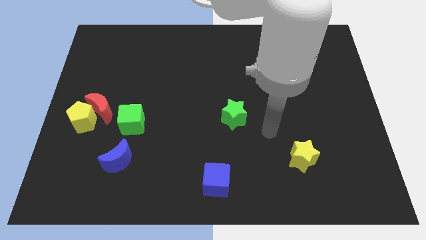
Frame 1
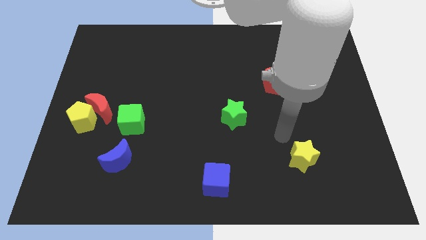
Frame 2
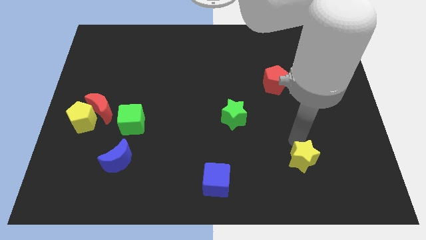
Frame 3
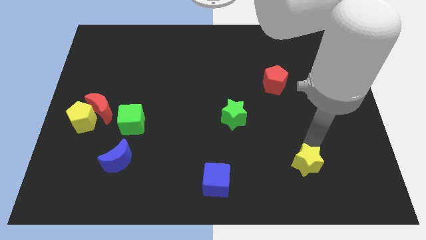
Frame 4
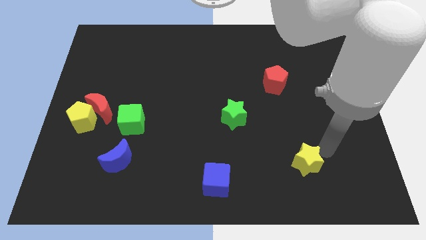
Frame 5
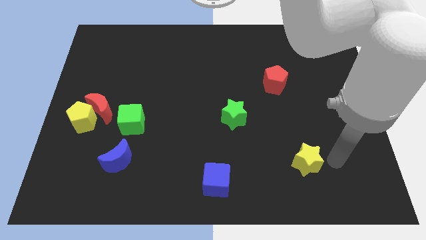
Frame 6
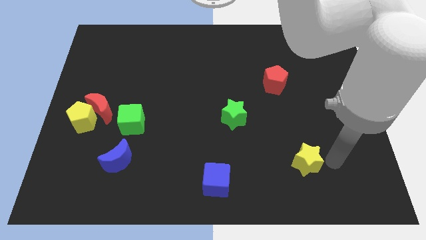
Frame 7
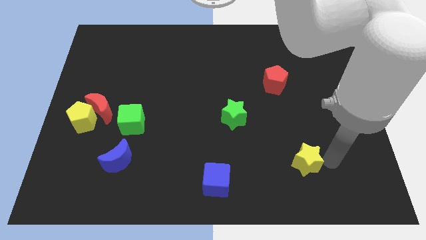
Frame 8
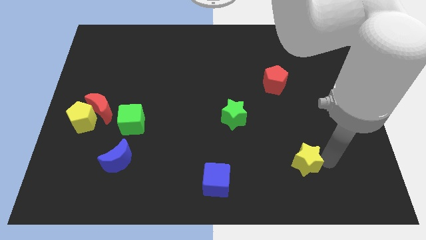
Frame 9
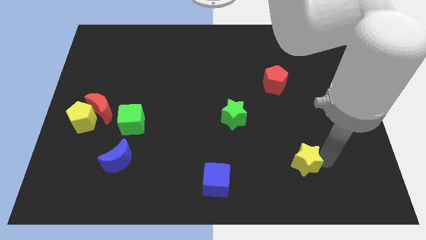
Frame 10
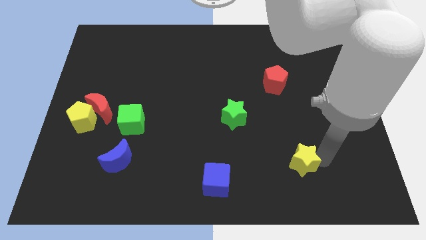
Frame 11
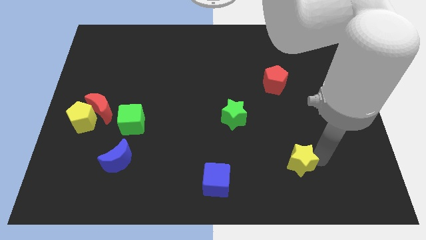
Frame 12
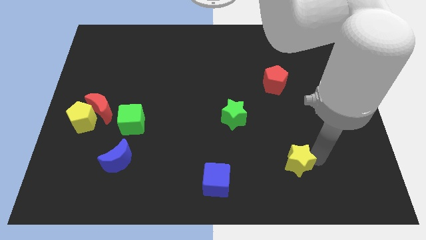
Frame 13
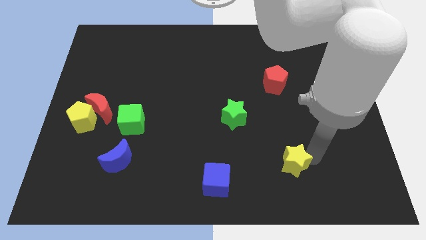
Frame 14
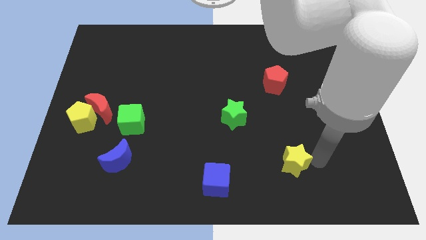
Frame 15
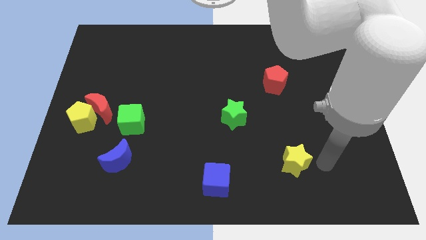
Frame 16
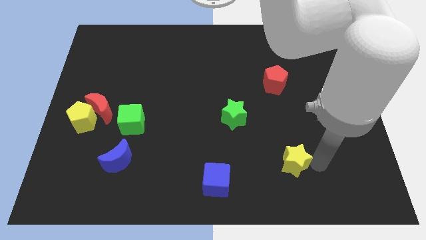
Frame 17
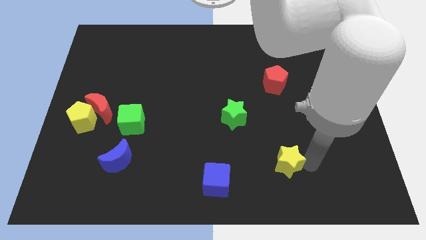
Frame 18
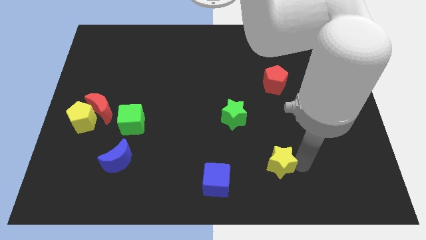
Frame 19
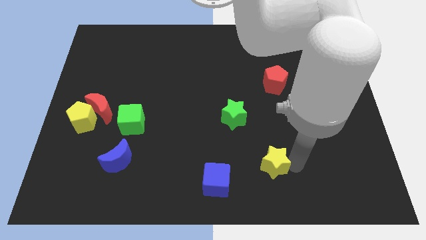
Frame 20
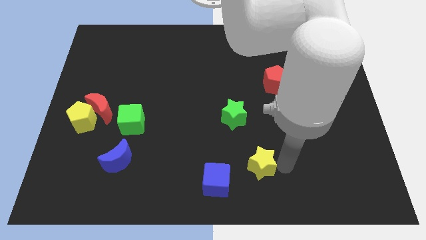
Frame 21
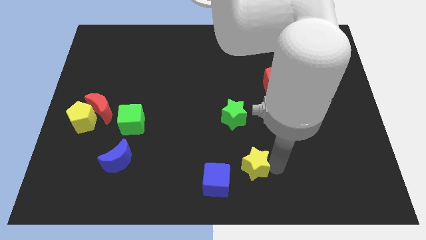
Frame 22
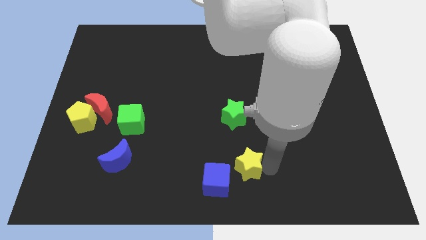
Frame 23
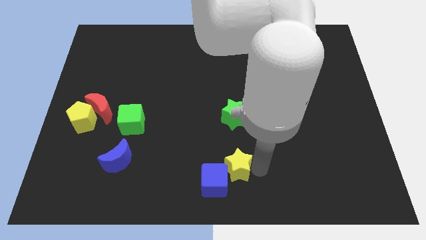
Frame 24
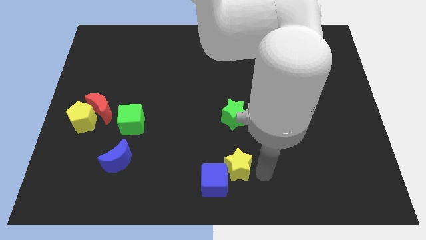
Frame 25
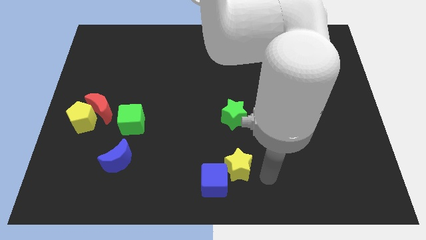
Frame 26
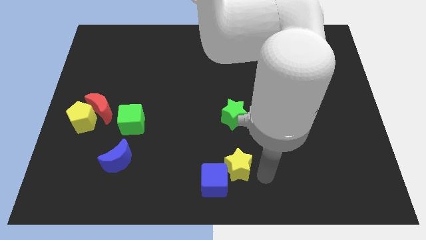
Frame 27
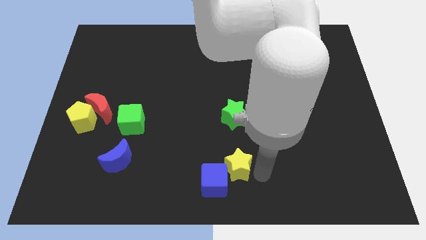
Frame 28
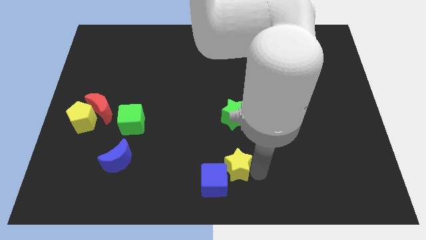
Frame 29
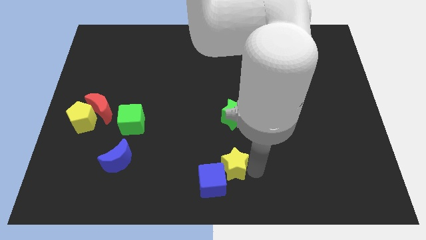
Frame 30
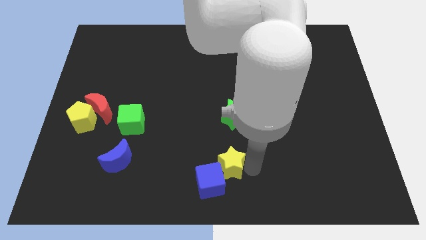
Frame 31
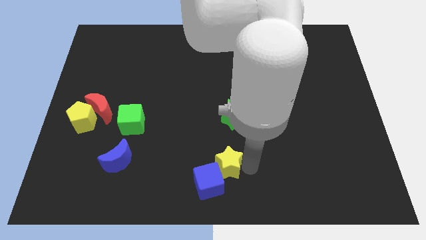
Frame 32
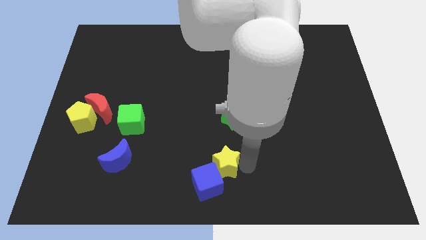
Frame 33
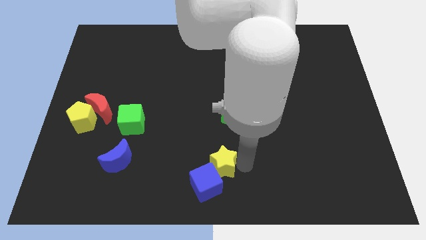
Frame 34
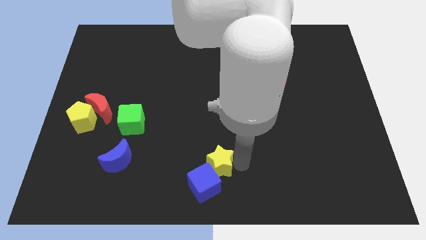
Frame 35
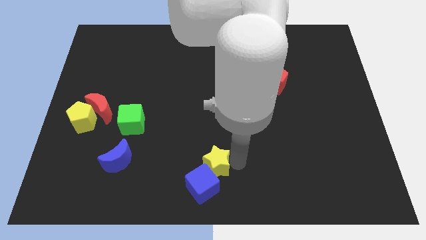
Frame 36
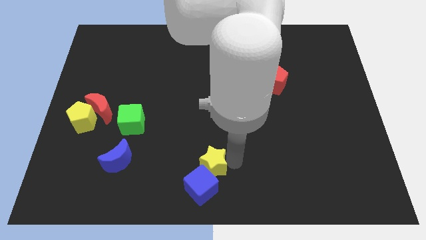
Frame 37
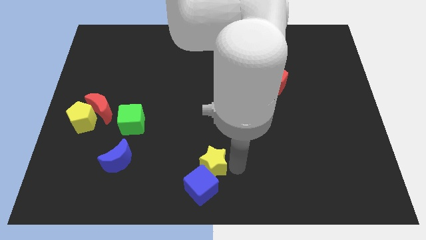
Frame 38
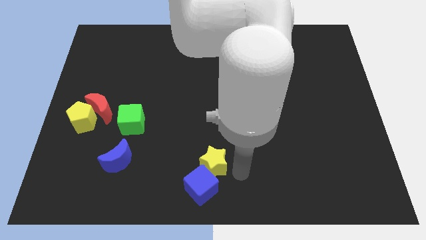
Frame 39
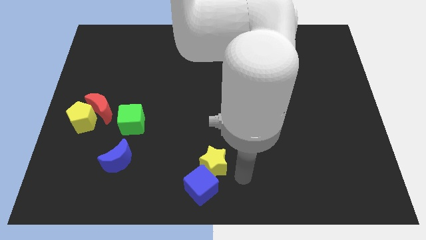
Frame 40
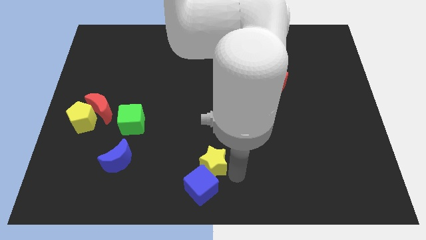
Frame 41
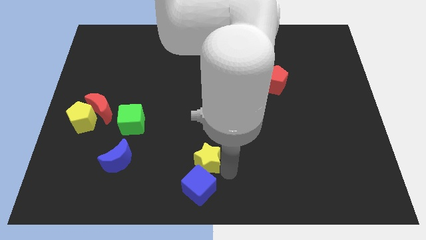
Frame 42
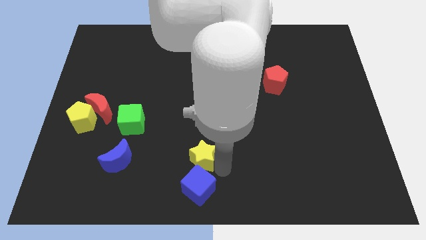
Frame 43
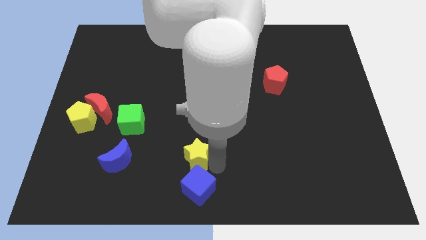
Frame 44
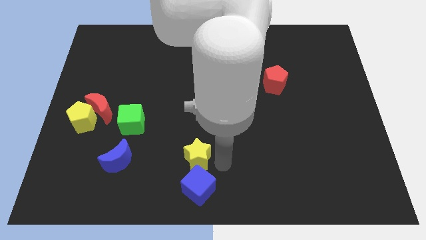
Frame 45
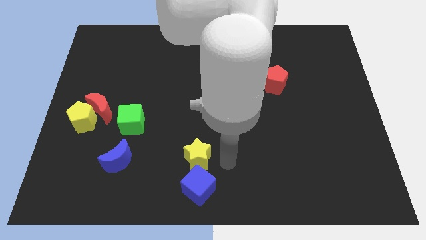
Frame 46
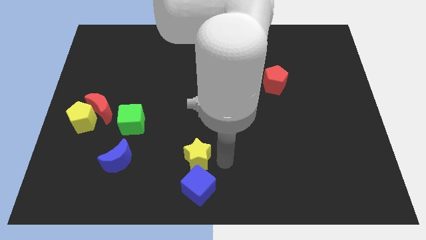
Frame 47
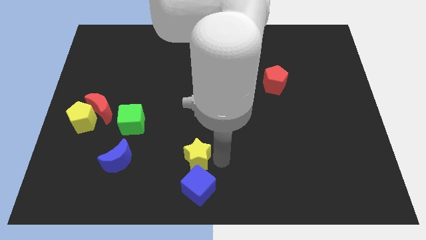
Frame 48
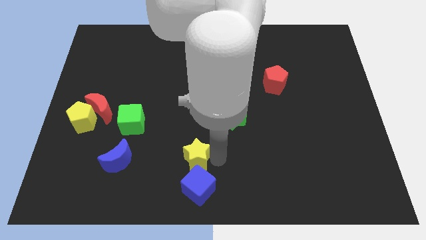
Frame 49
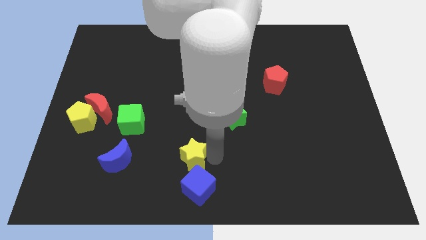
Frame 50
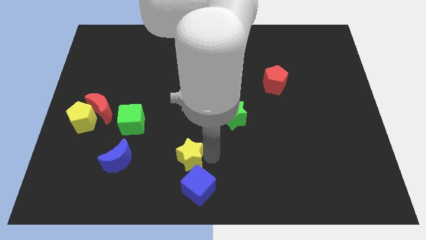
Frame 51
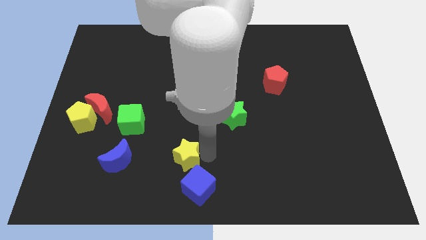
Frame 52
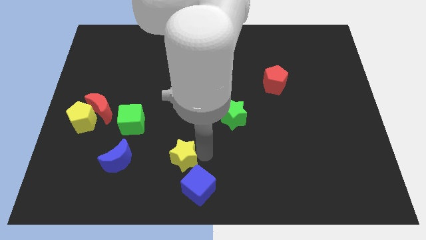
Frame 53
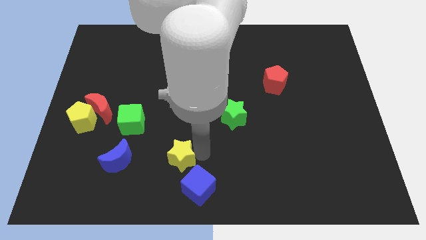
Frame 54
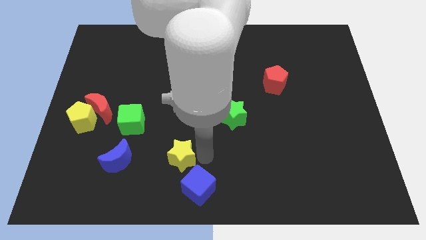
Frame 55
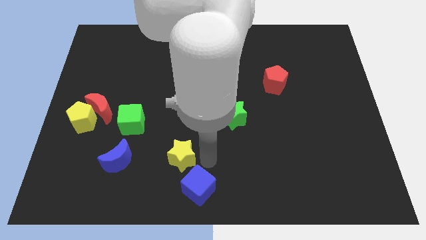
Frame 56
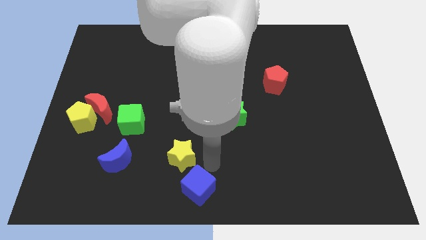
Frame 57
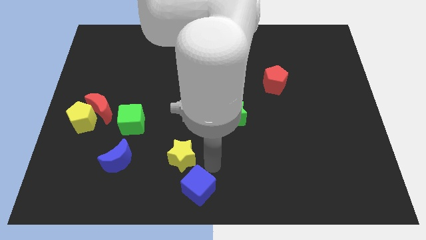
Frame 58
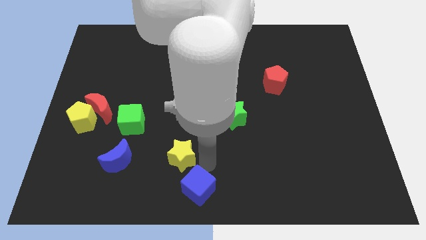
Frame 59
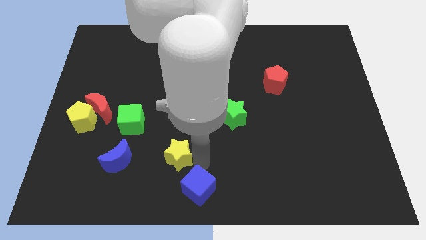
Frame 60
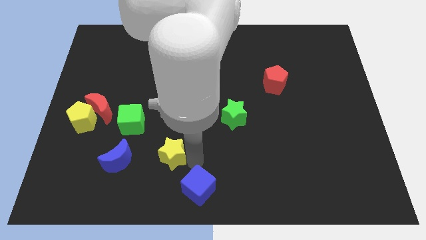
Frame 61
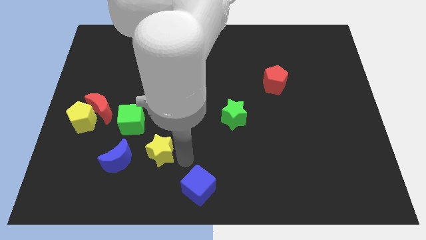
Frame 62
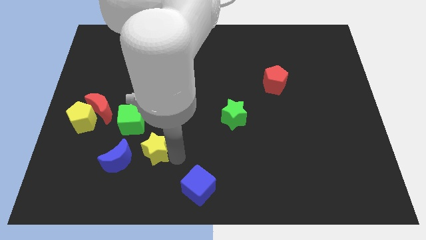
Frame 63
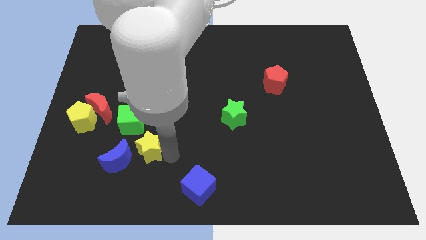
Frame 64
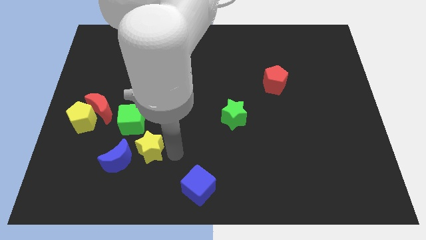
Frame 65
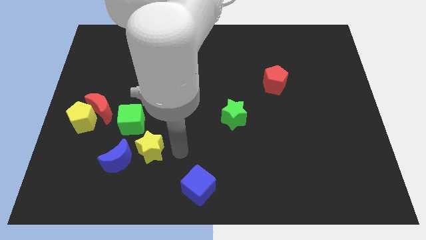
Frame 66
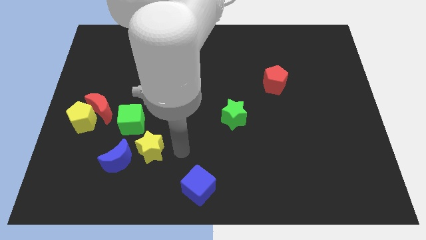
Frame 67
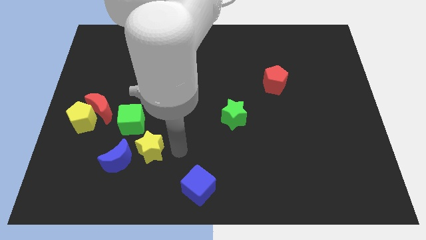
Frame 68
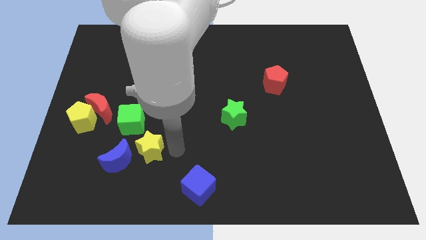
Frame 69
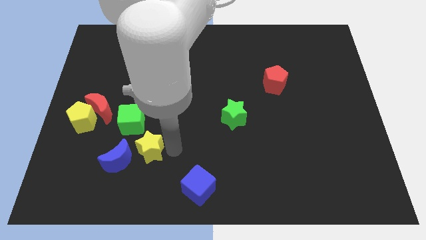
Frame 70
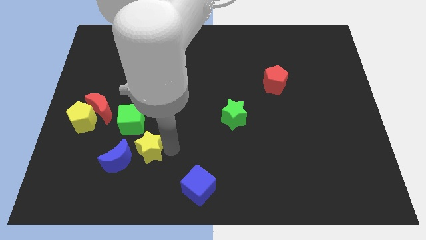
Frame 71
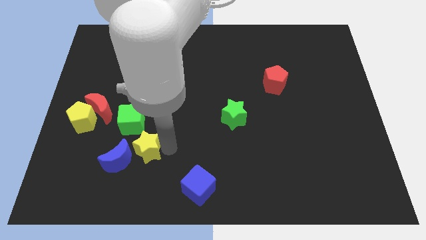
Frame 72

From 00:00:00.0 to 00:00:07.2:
push the yellow star next to the blue moon
